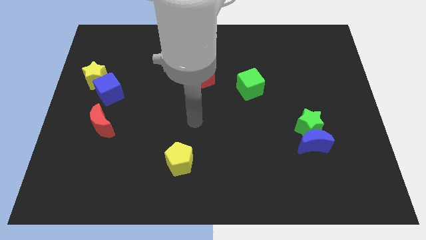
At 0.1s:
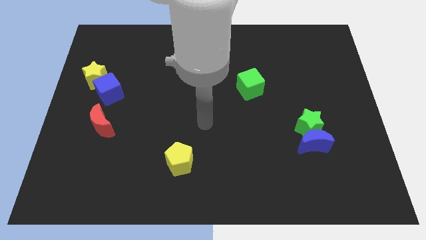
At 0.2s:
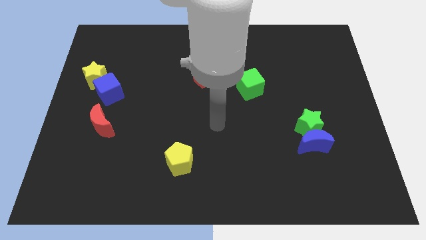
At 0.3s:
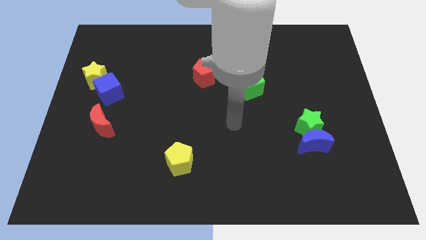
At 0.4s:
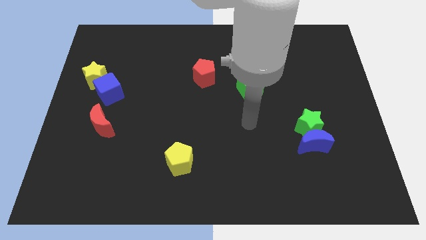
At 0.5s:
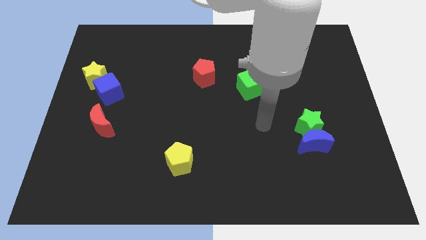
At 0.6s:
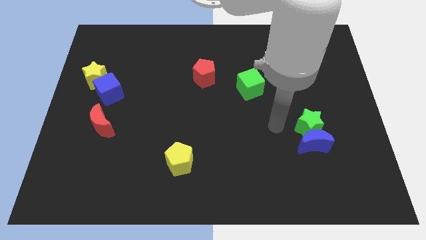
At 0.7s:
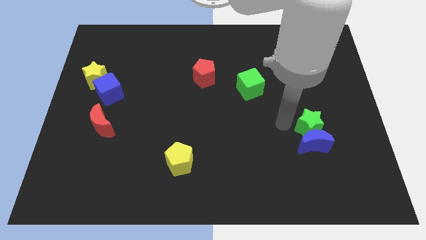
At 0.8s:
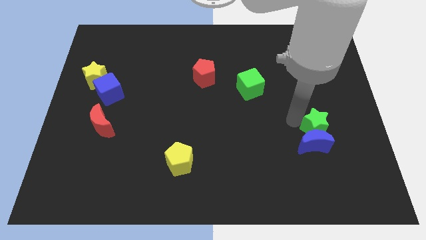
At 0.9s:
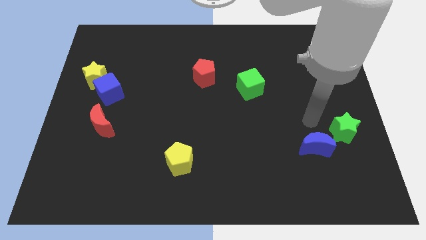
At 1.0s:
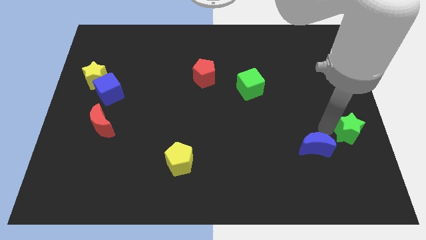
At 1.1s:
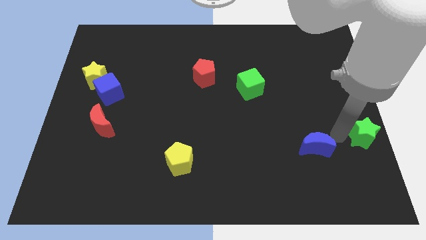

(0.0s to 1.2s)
move the blue moon away from the green star

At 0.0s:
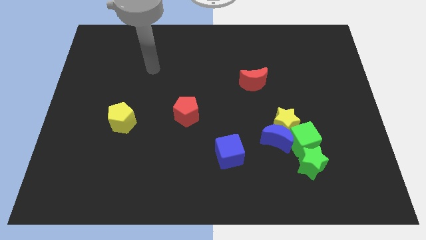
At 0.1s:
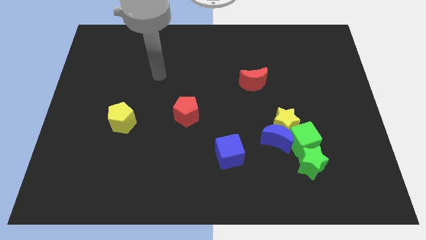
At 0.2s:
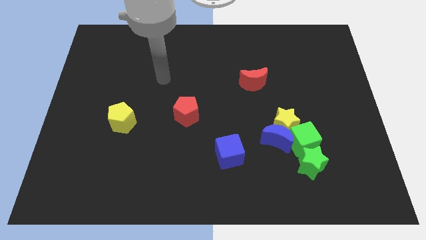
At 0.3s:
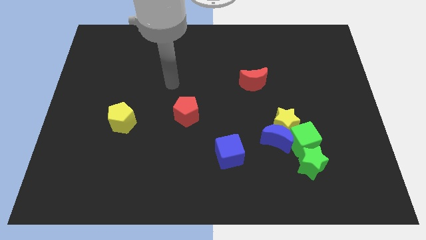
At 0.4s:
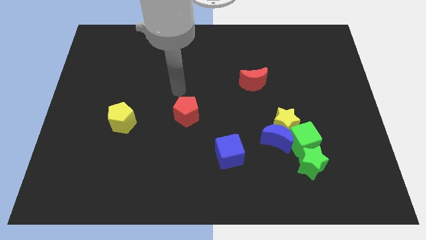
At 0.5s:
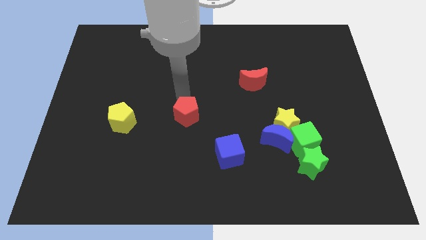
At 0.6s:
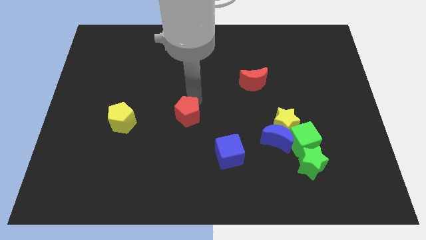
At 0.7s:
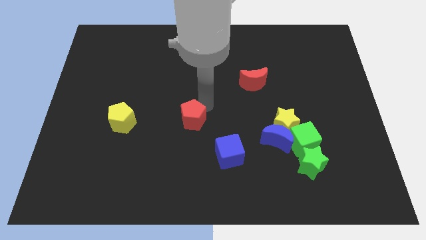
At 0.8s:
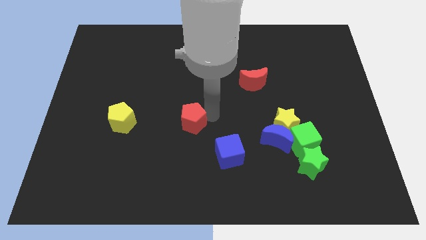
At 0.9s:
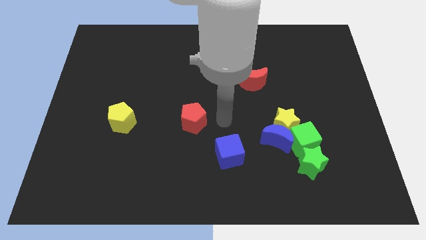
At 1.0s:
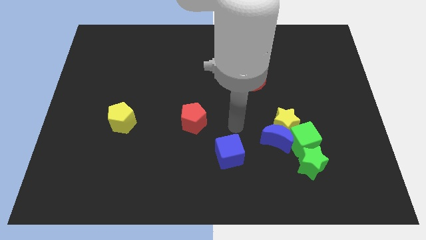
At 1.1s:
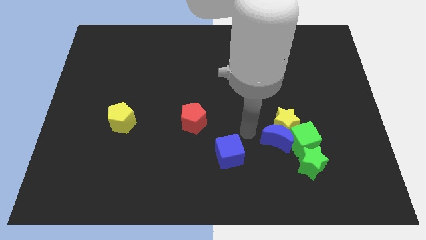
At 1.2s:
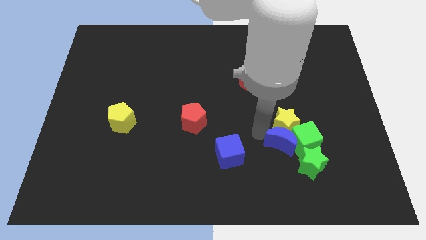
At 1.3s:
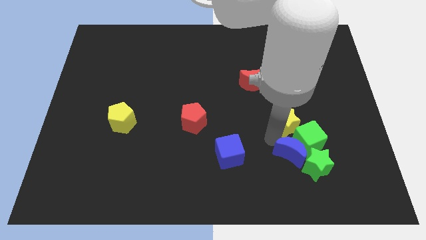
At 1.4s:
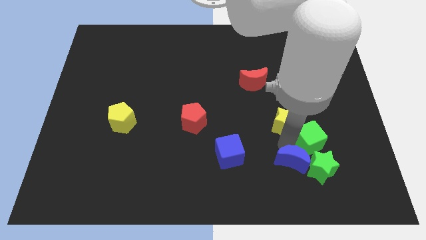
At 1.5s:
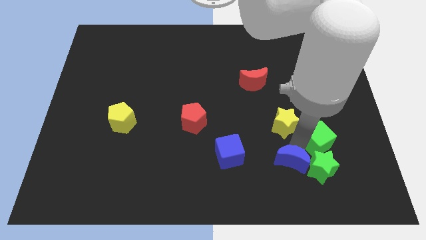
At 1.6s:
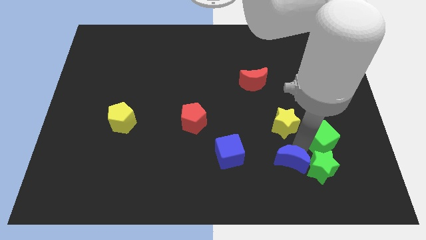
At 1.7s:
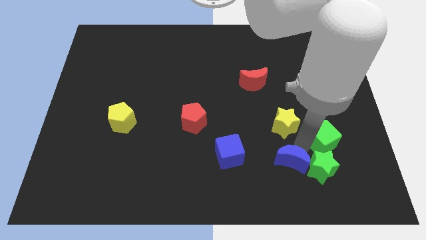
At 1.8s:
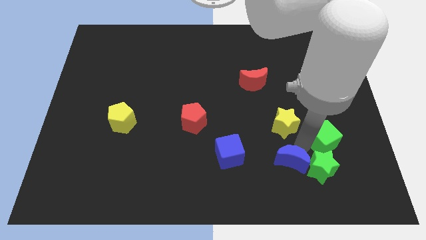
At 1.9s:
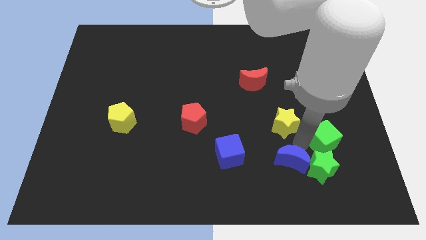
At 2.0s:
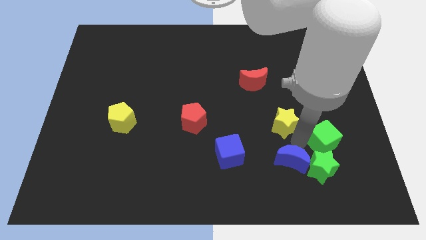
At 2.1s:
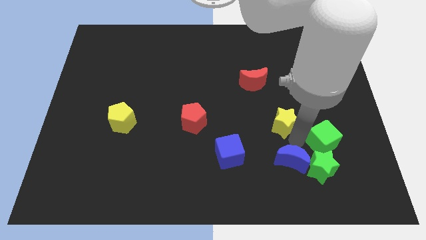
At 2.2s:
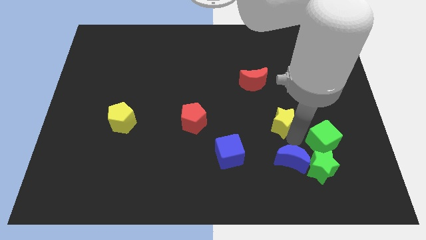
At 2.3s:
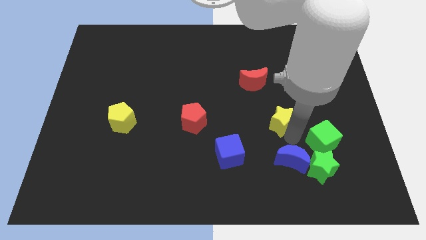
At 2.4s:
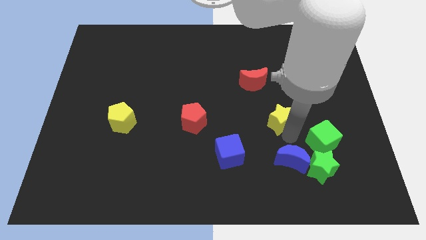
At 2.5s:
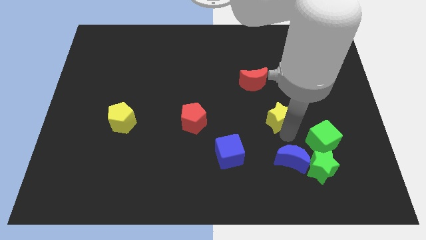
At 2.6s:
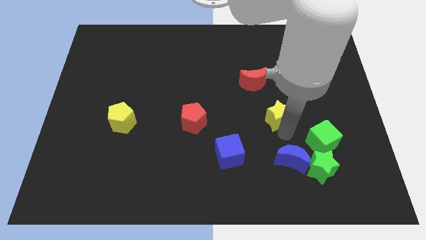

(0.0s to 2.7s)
separate the yellow star from the blue moon and green cube

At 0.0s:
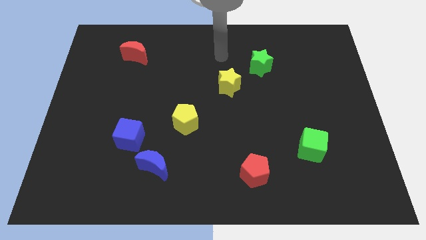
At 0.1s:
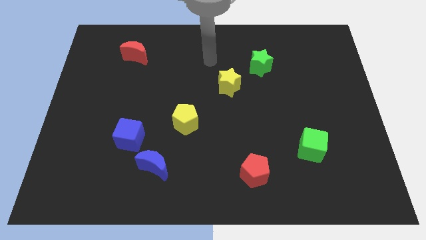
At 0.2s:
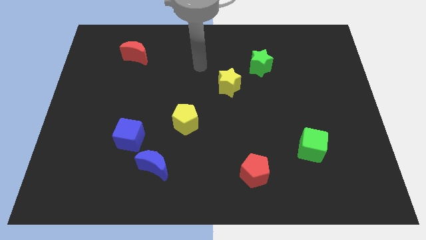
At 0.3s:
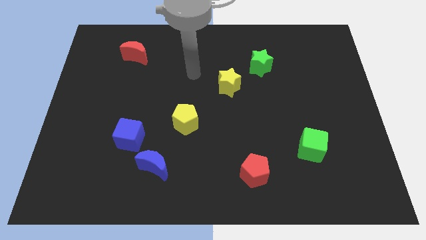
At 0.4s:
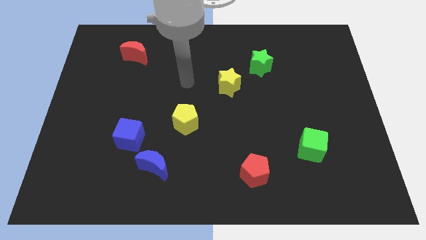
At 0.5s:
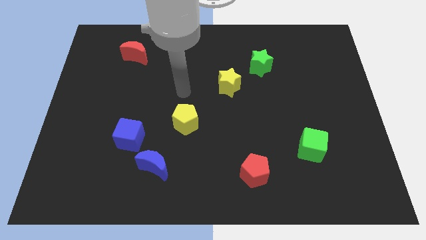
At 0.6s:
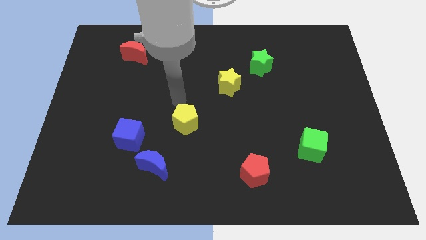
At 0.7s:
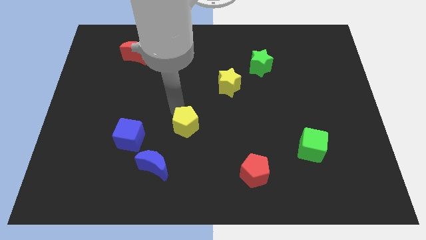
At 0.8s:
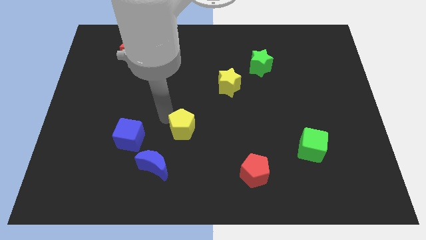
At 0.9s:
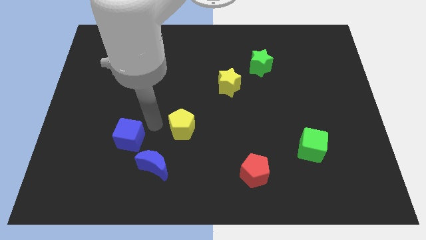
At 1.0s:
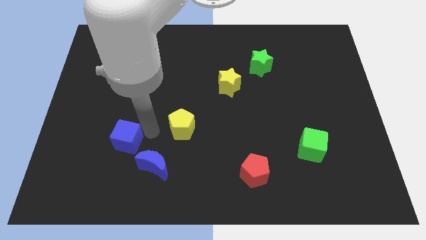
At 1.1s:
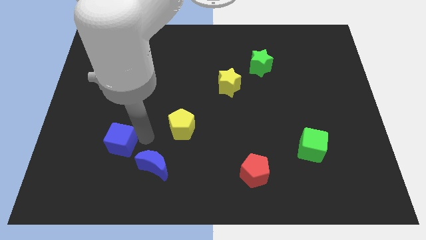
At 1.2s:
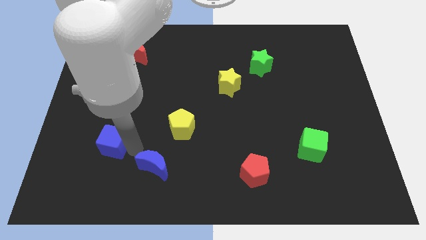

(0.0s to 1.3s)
pull the blue moon apart from the blue cube

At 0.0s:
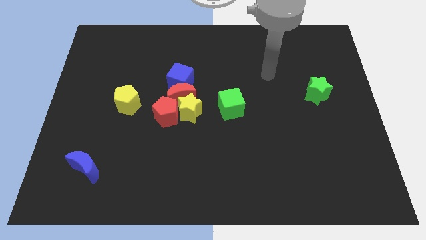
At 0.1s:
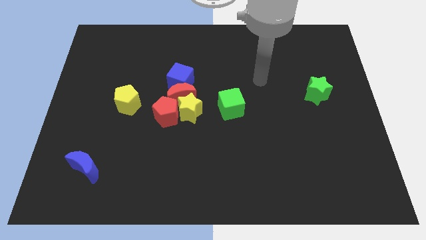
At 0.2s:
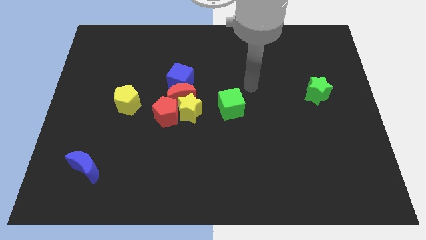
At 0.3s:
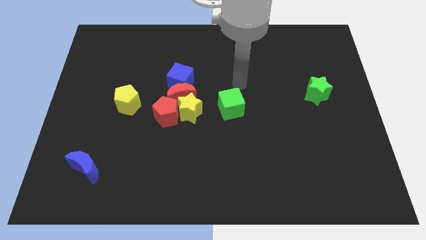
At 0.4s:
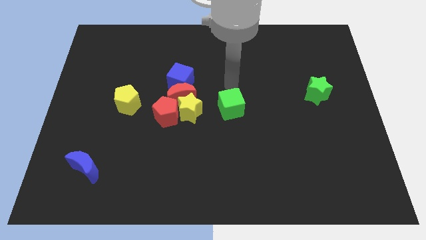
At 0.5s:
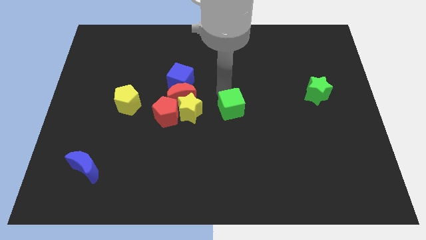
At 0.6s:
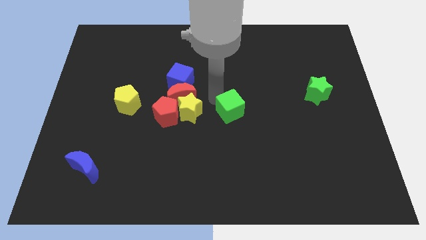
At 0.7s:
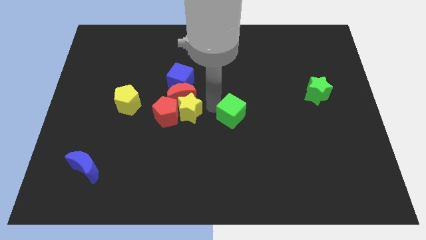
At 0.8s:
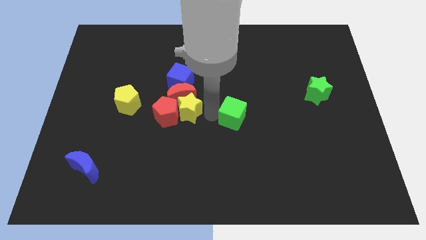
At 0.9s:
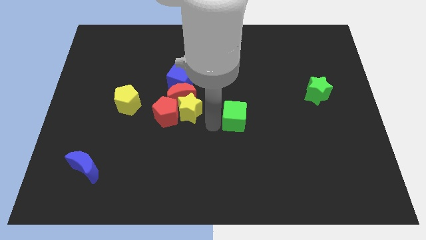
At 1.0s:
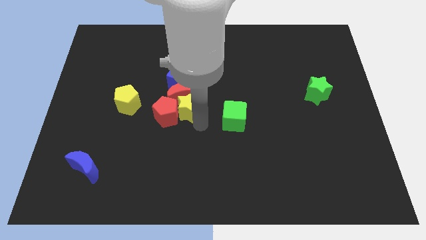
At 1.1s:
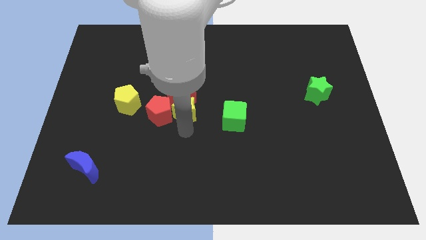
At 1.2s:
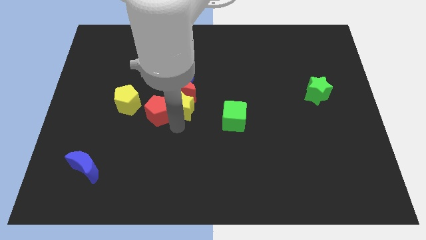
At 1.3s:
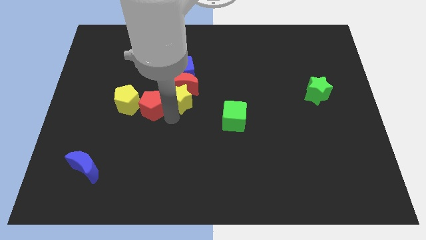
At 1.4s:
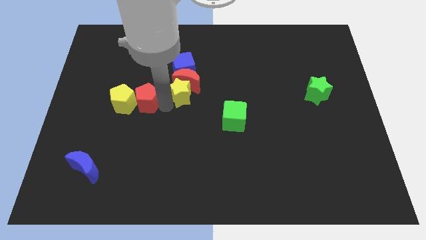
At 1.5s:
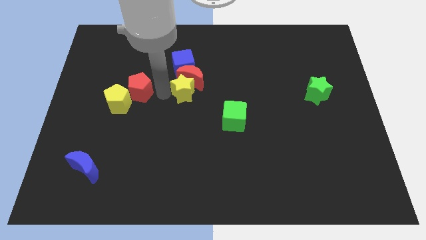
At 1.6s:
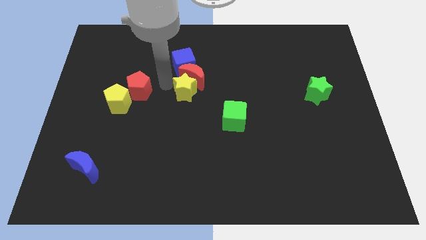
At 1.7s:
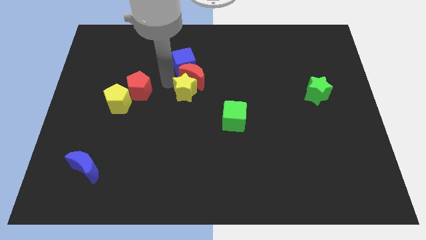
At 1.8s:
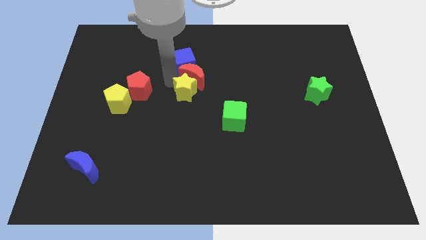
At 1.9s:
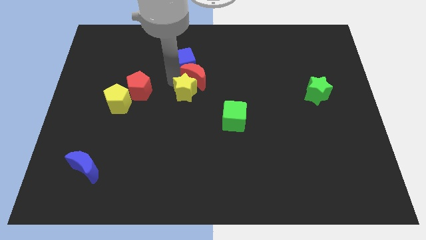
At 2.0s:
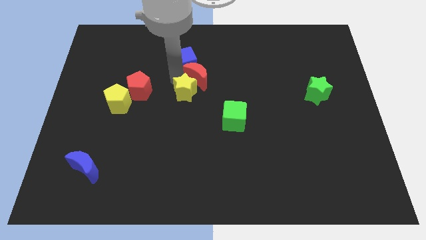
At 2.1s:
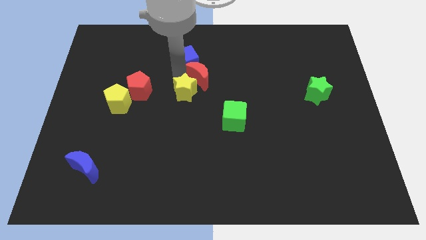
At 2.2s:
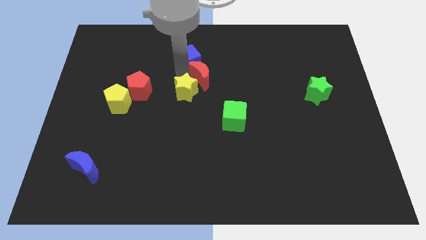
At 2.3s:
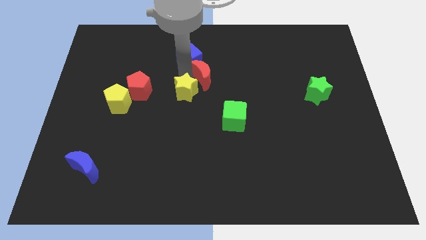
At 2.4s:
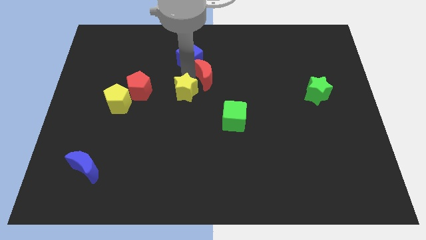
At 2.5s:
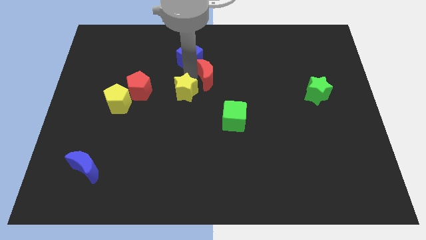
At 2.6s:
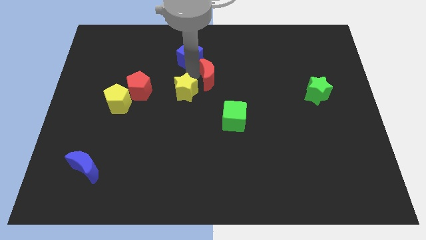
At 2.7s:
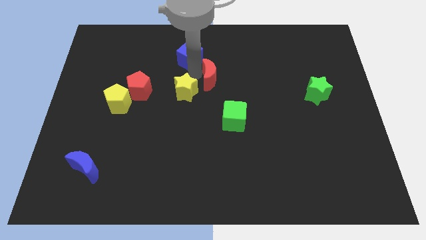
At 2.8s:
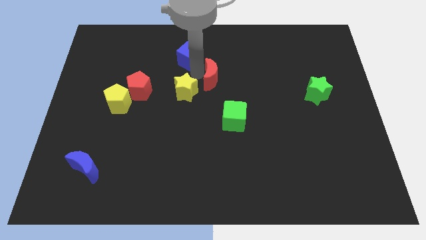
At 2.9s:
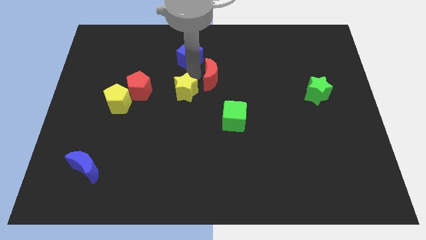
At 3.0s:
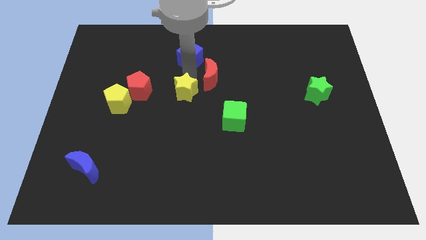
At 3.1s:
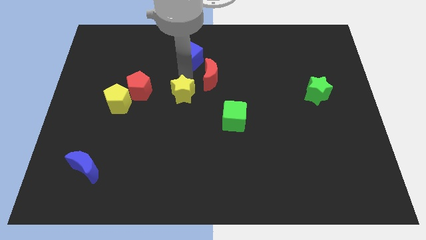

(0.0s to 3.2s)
separate the red moon from the group

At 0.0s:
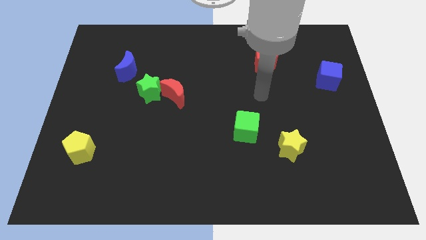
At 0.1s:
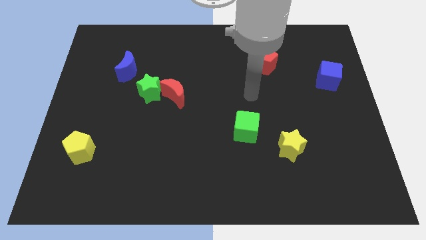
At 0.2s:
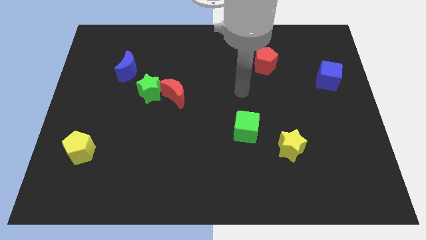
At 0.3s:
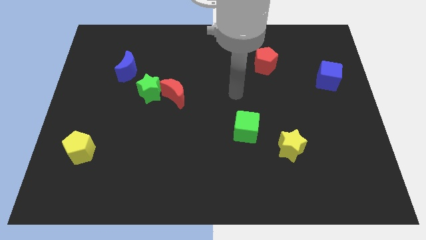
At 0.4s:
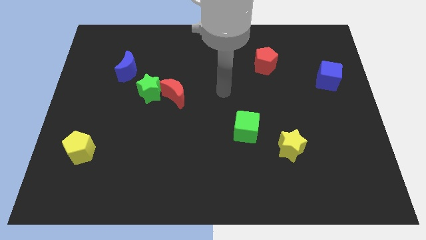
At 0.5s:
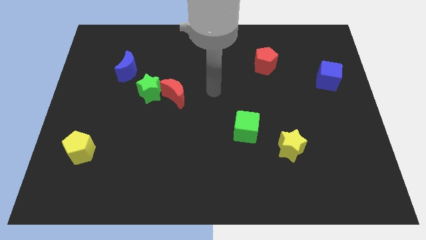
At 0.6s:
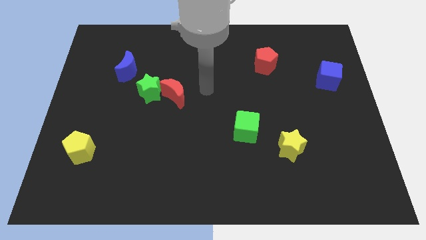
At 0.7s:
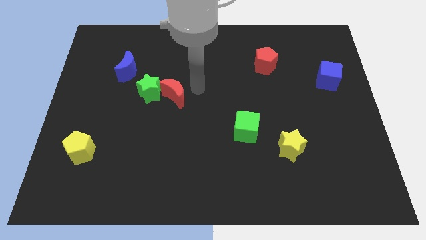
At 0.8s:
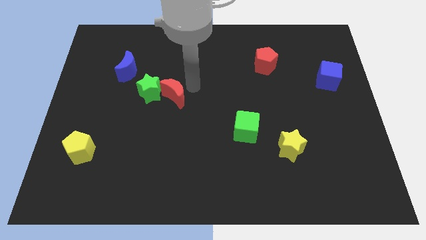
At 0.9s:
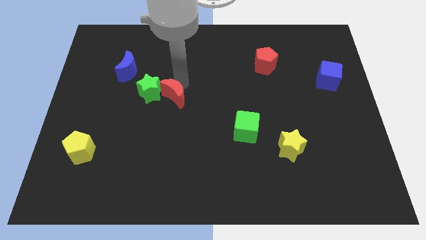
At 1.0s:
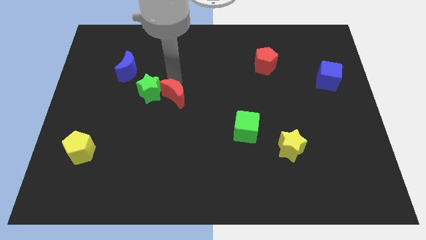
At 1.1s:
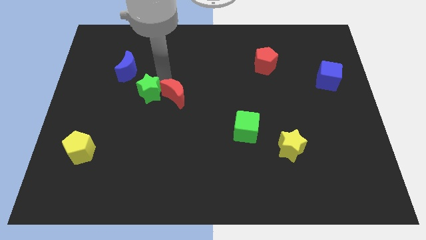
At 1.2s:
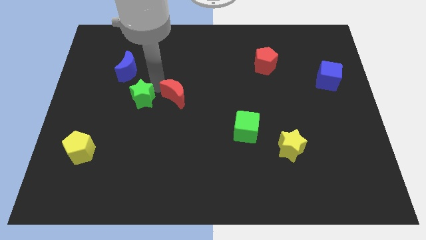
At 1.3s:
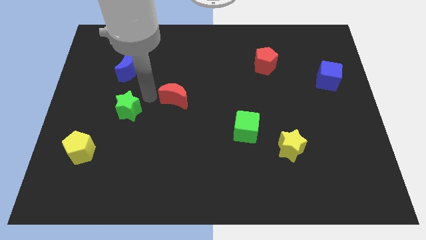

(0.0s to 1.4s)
pull the red moon apart from the green star
